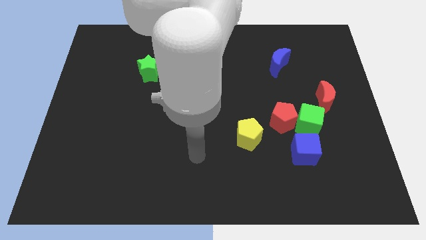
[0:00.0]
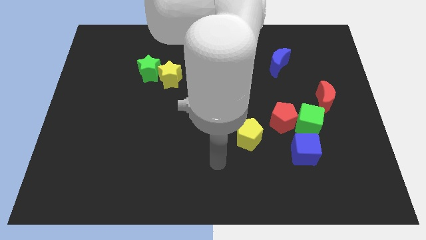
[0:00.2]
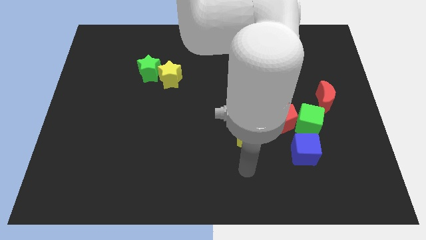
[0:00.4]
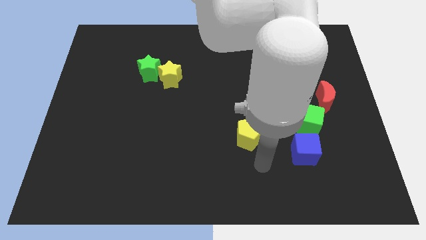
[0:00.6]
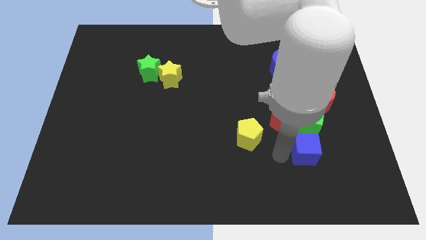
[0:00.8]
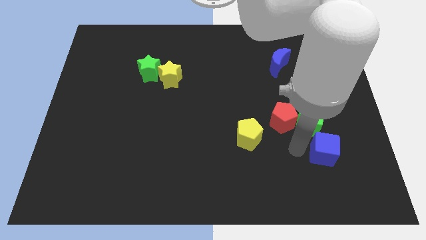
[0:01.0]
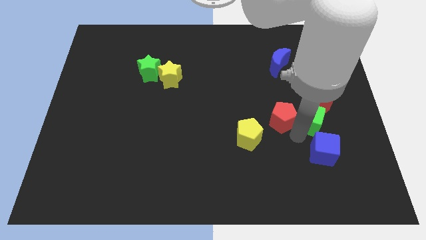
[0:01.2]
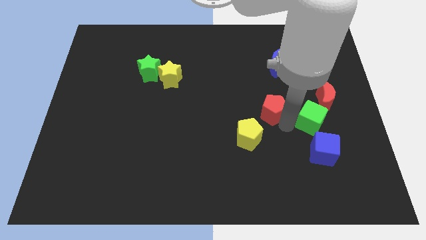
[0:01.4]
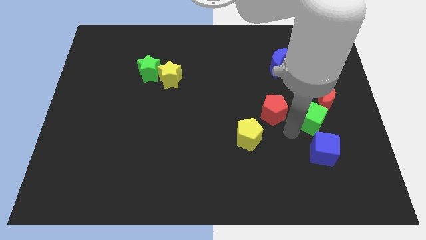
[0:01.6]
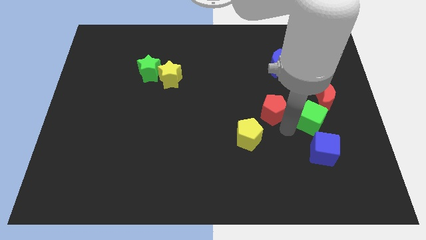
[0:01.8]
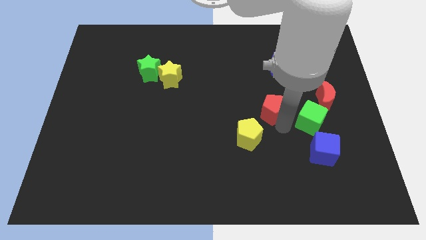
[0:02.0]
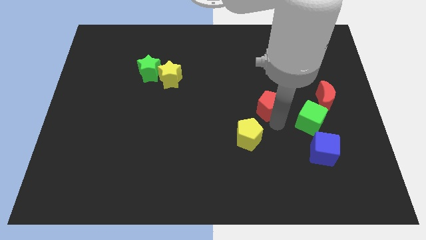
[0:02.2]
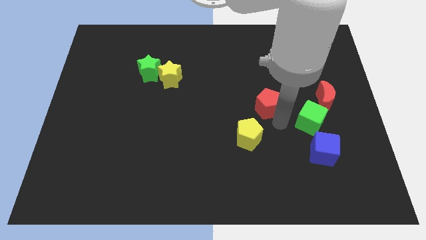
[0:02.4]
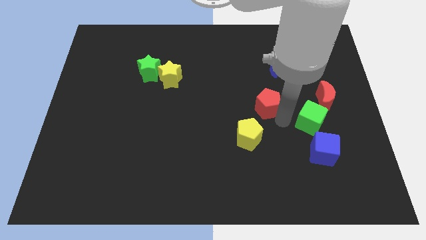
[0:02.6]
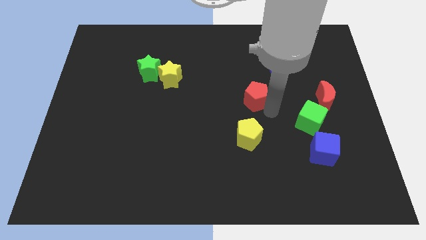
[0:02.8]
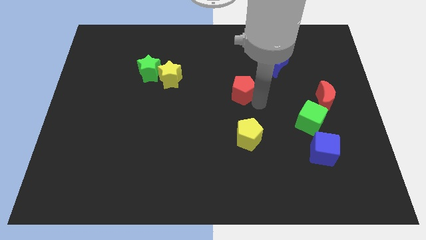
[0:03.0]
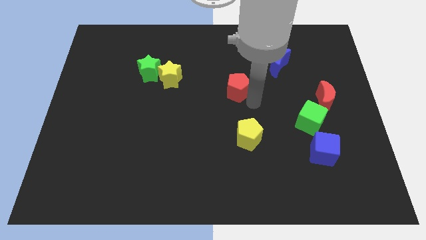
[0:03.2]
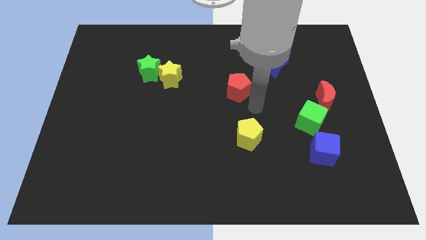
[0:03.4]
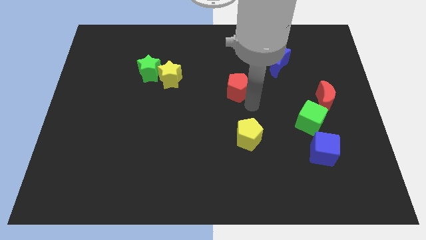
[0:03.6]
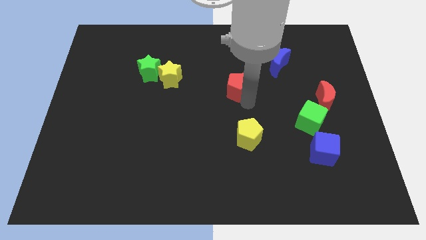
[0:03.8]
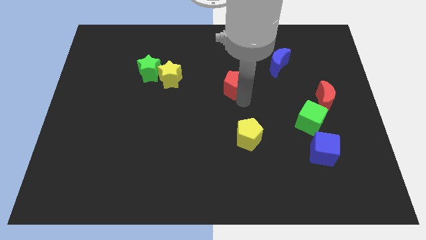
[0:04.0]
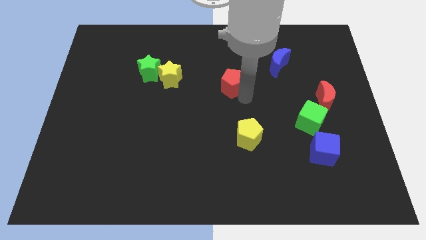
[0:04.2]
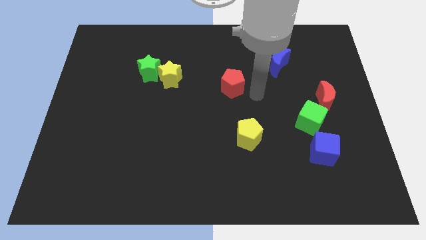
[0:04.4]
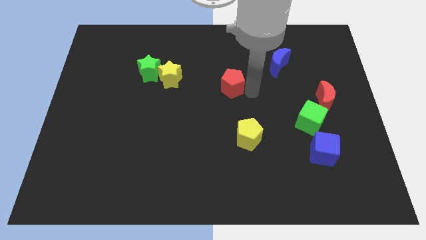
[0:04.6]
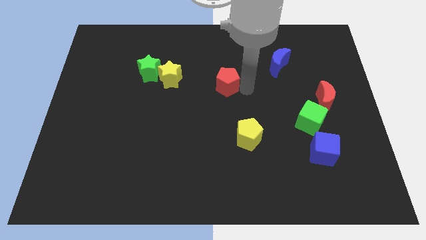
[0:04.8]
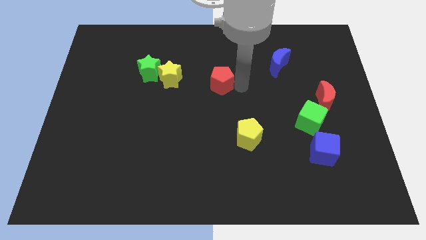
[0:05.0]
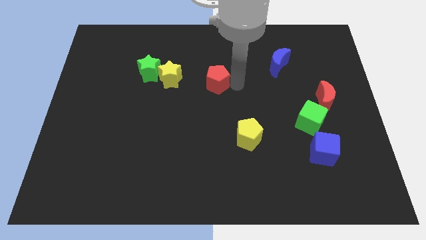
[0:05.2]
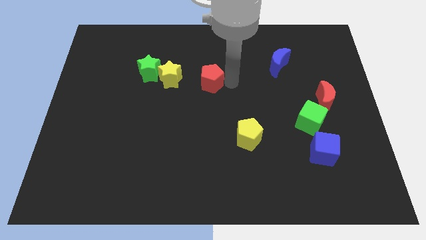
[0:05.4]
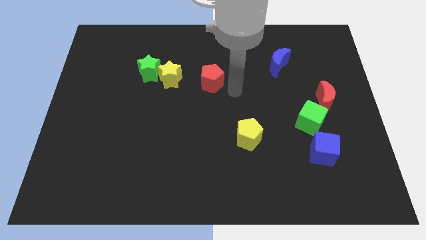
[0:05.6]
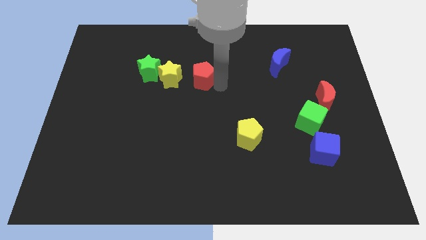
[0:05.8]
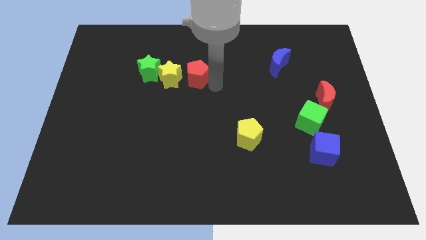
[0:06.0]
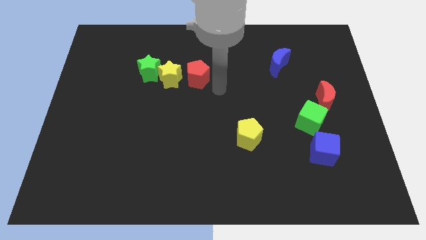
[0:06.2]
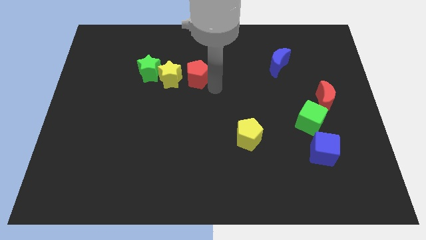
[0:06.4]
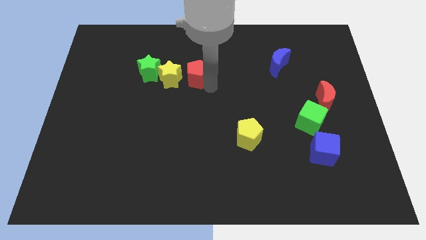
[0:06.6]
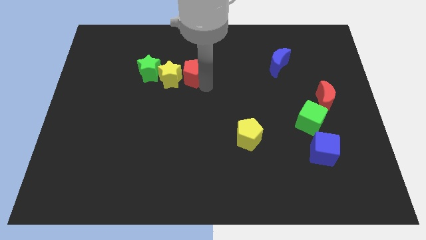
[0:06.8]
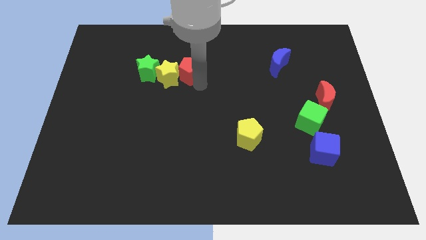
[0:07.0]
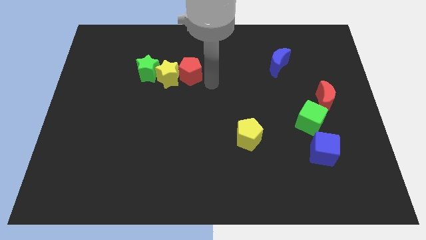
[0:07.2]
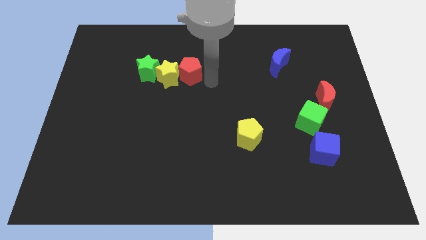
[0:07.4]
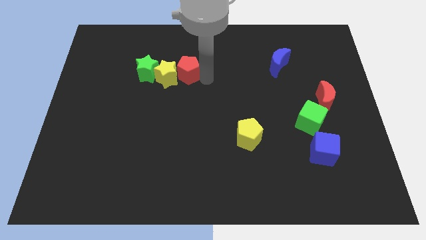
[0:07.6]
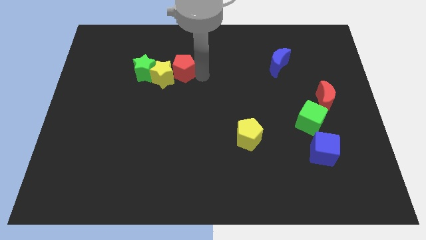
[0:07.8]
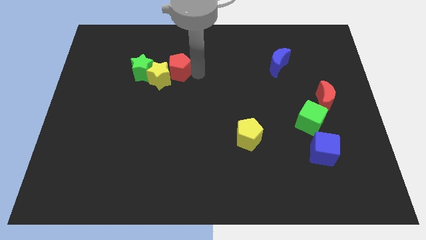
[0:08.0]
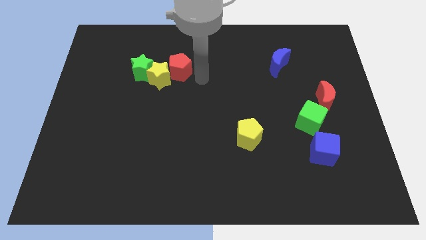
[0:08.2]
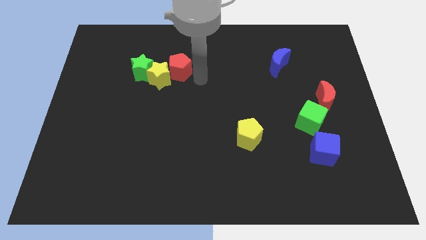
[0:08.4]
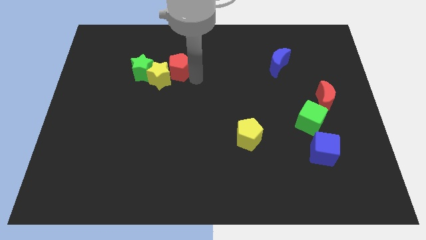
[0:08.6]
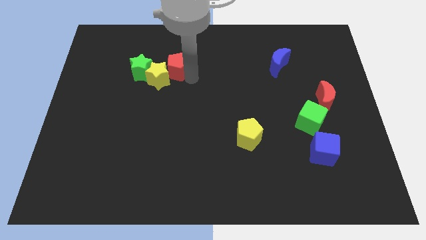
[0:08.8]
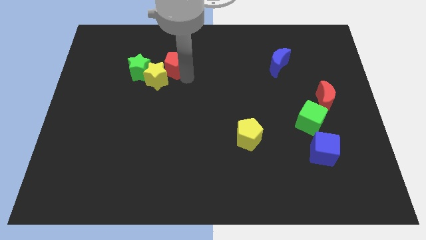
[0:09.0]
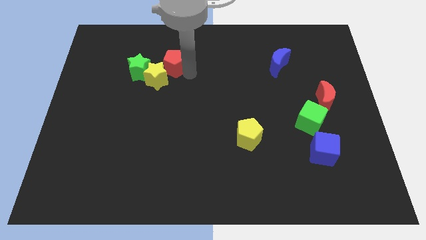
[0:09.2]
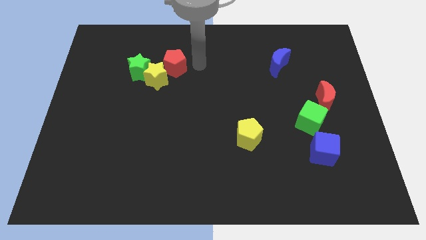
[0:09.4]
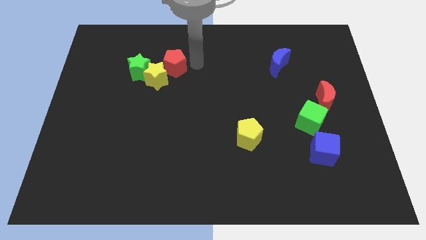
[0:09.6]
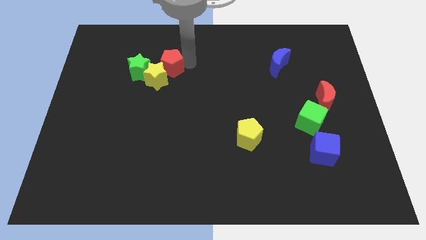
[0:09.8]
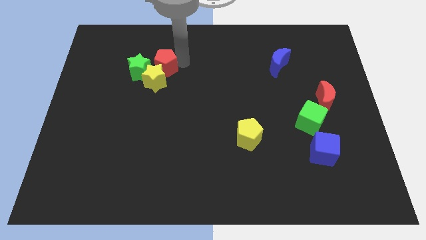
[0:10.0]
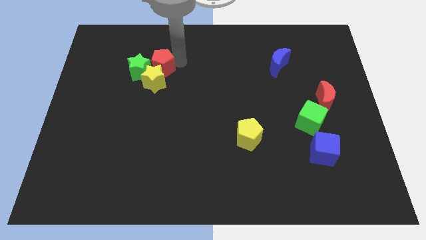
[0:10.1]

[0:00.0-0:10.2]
slide the red pentagon towards the green star

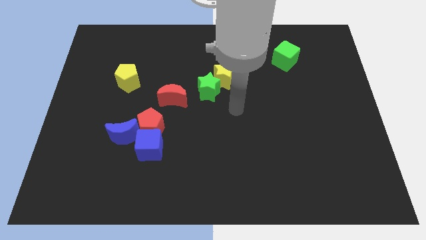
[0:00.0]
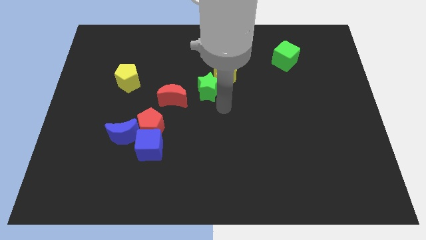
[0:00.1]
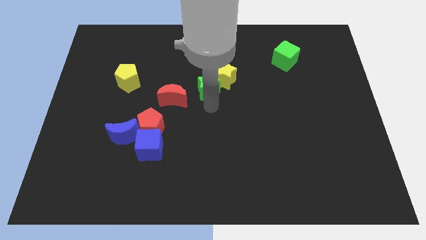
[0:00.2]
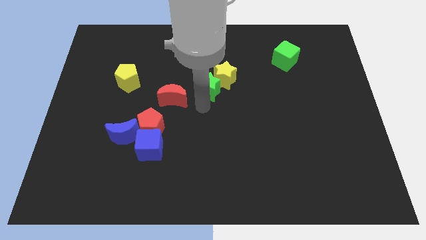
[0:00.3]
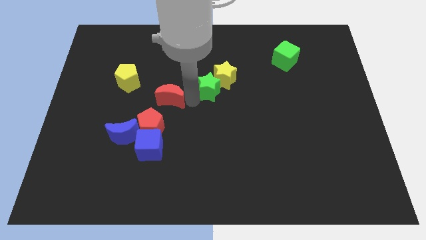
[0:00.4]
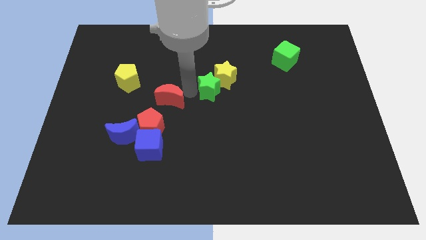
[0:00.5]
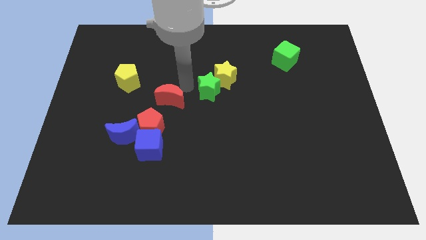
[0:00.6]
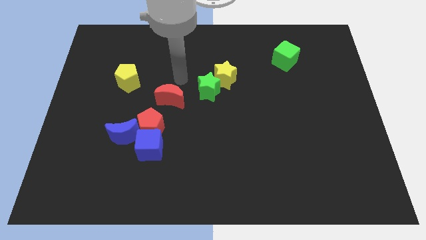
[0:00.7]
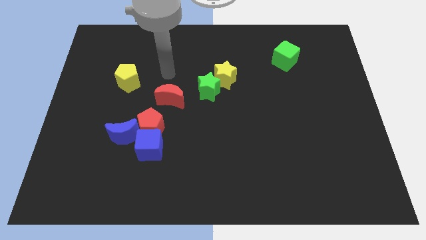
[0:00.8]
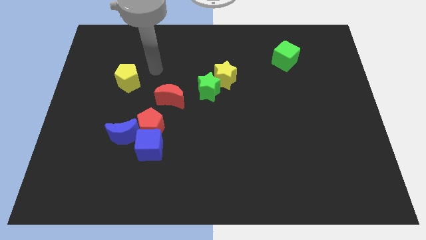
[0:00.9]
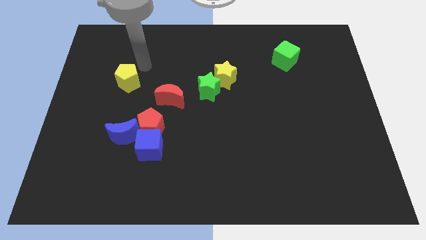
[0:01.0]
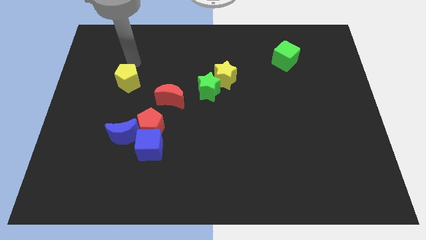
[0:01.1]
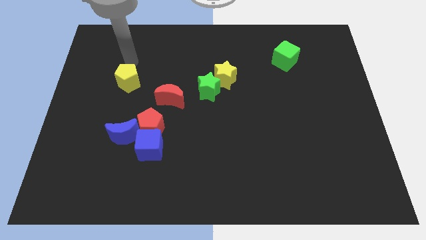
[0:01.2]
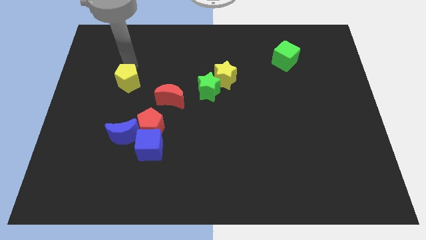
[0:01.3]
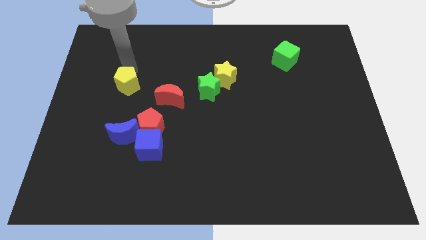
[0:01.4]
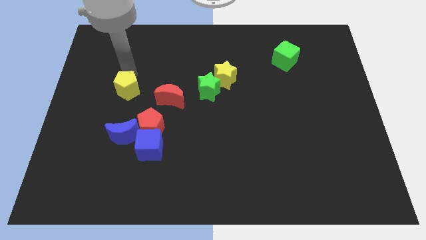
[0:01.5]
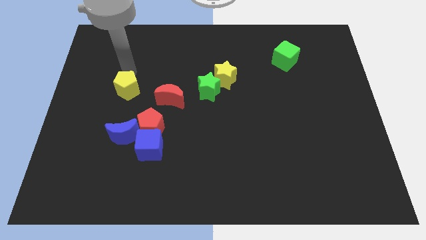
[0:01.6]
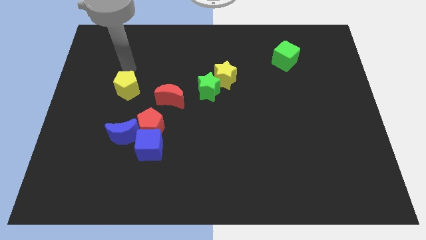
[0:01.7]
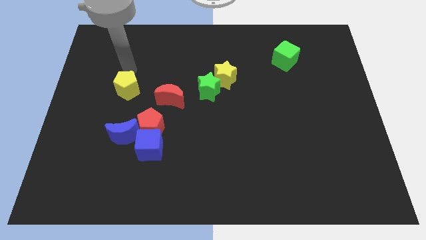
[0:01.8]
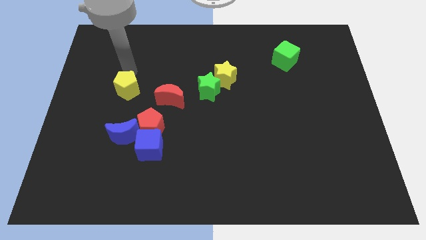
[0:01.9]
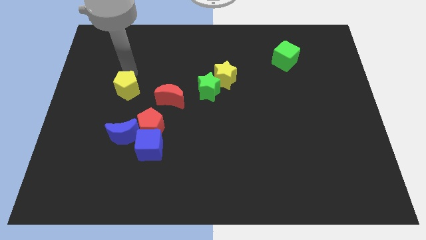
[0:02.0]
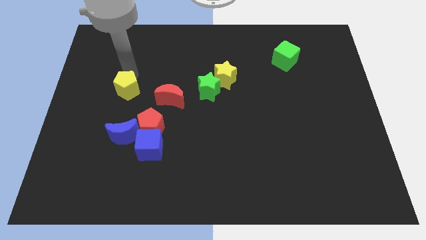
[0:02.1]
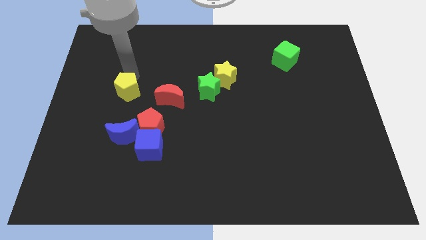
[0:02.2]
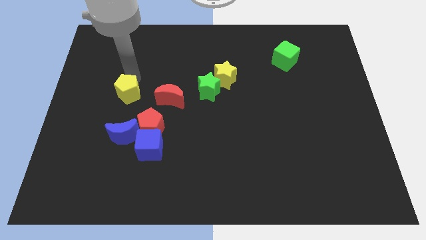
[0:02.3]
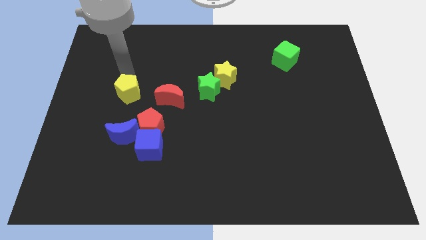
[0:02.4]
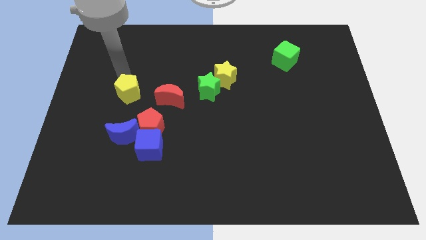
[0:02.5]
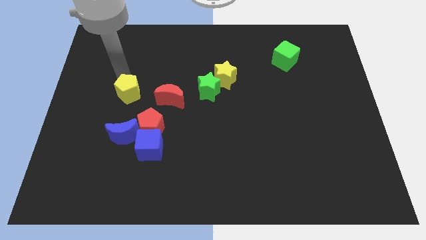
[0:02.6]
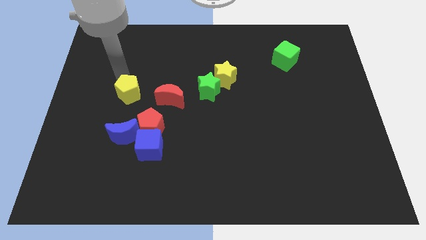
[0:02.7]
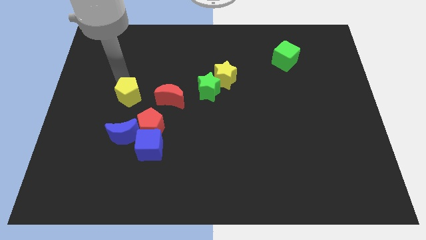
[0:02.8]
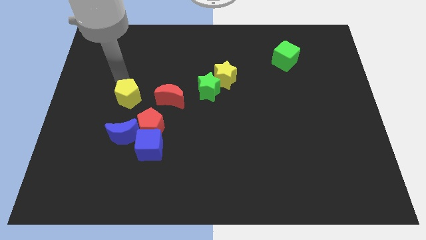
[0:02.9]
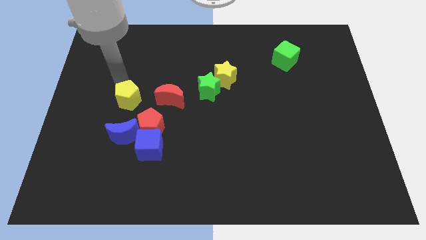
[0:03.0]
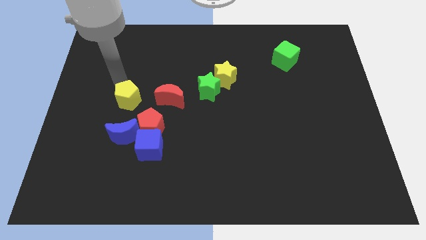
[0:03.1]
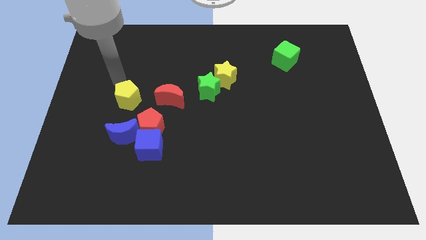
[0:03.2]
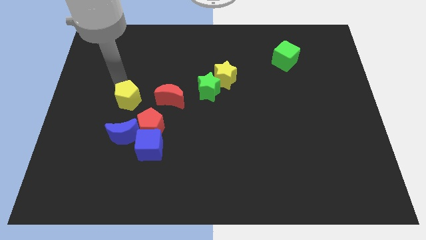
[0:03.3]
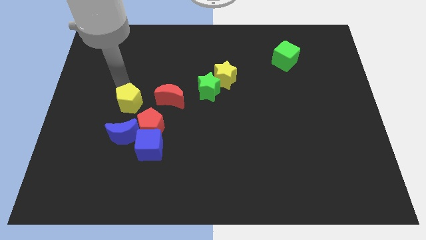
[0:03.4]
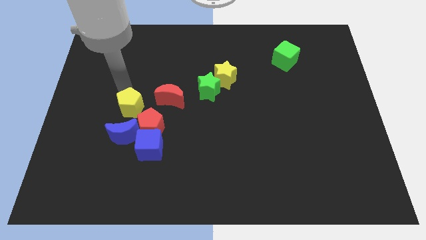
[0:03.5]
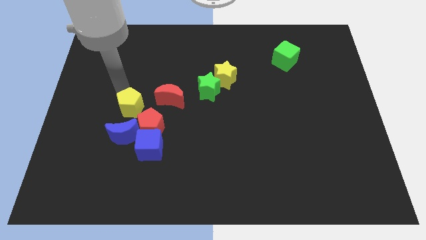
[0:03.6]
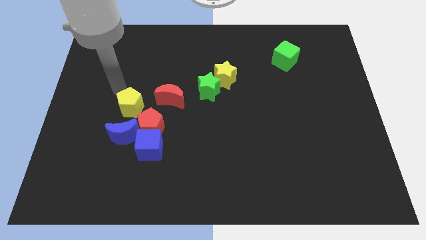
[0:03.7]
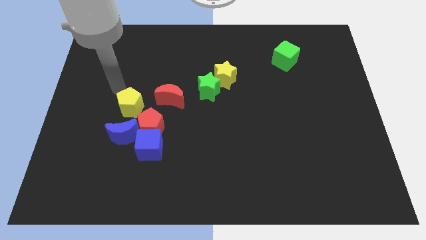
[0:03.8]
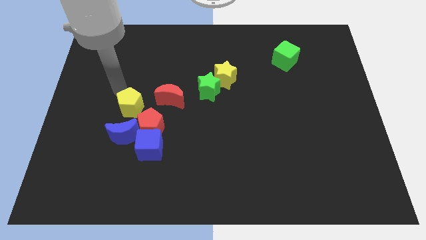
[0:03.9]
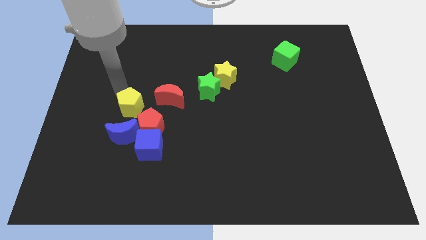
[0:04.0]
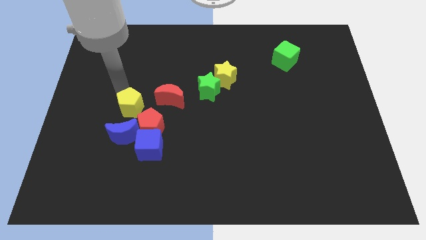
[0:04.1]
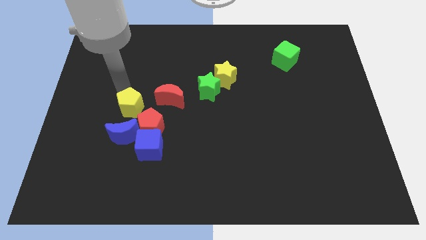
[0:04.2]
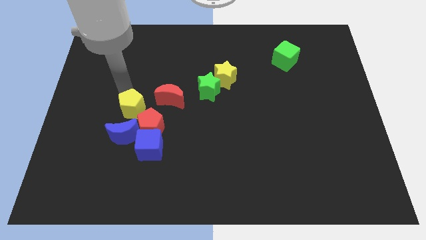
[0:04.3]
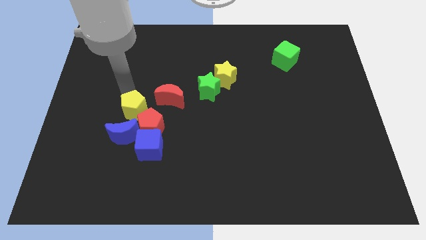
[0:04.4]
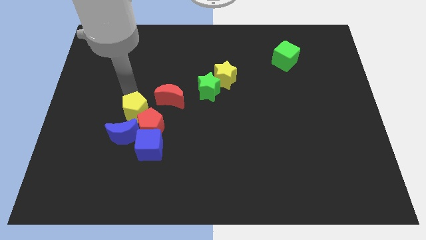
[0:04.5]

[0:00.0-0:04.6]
push the yellow pentagon next to the red pentagon
